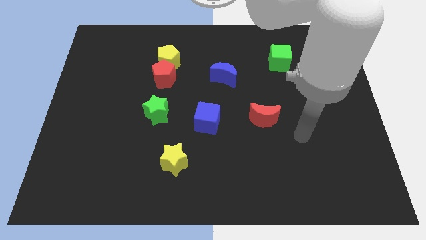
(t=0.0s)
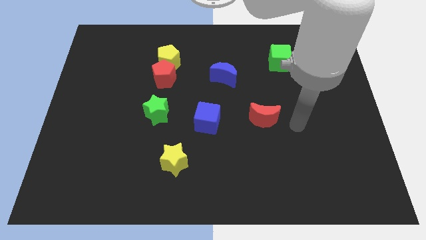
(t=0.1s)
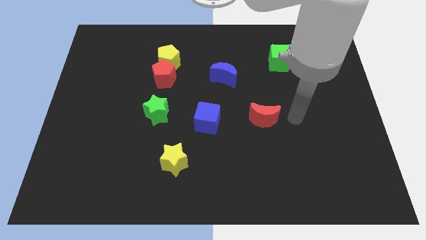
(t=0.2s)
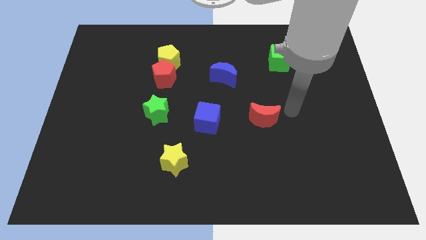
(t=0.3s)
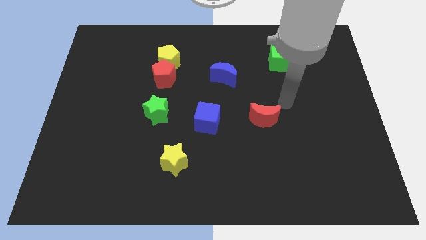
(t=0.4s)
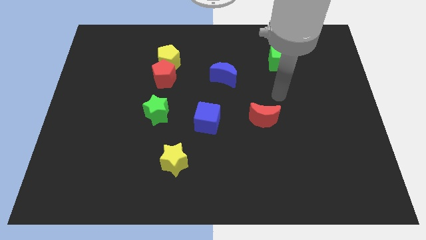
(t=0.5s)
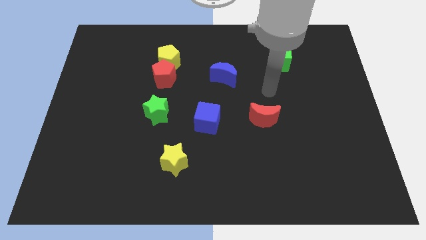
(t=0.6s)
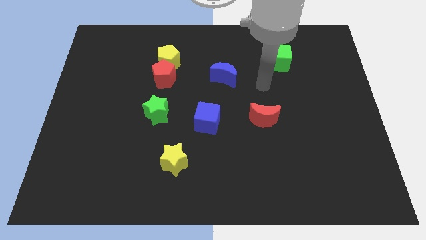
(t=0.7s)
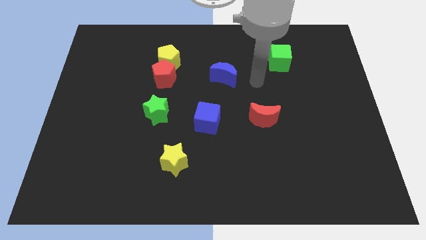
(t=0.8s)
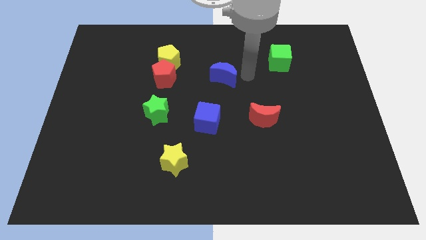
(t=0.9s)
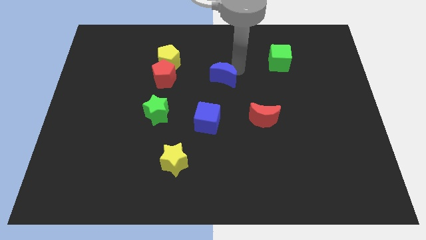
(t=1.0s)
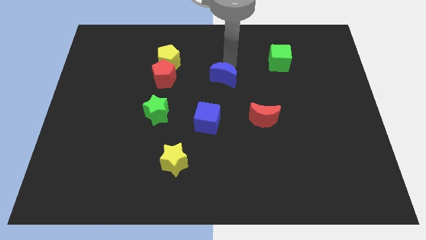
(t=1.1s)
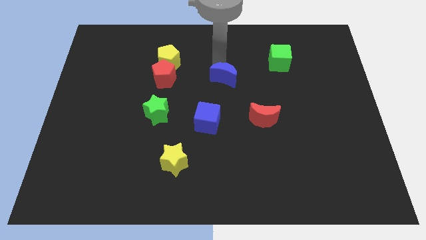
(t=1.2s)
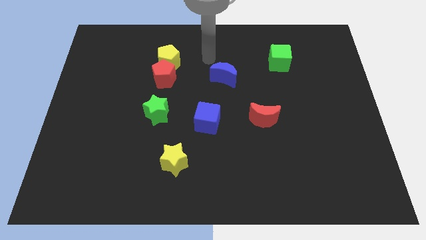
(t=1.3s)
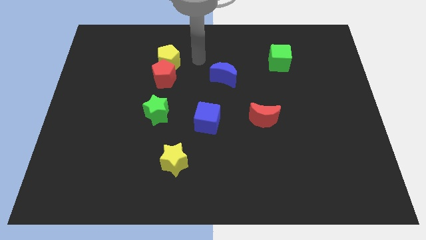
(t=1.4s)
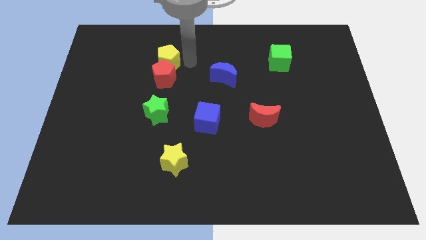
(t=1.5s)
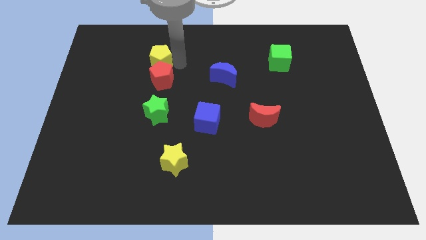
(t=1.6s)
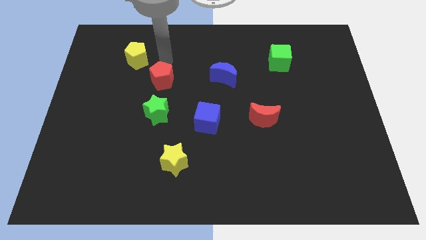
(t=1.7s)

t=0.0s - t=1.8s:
move the red pentagon away from the yellow pentagon

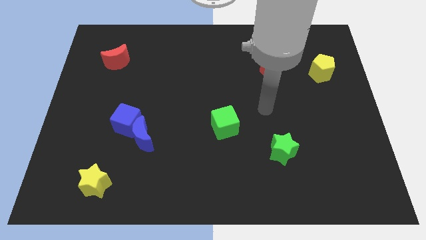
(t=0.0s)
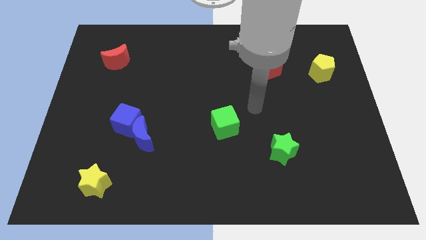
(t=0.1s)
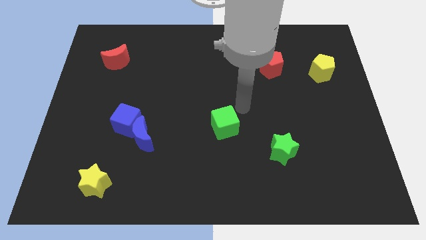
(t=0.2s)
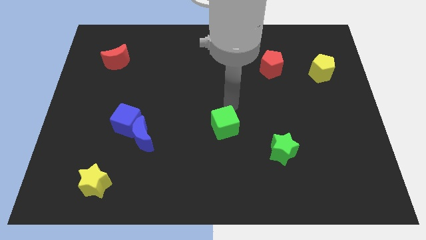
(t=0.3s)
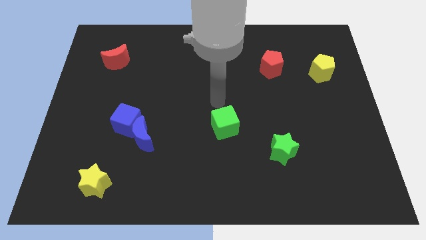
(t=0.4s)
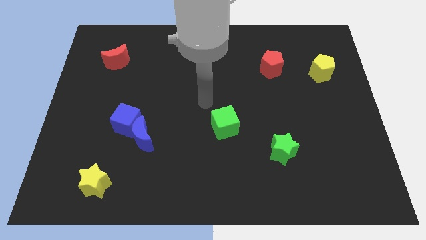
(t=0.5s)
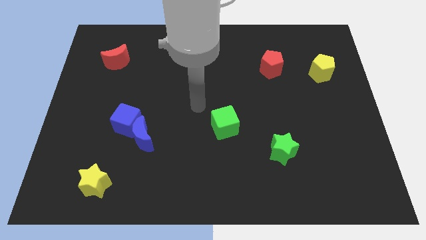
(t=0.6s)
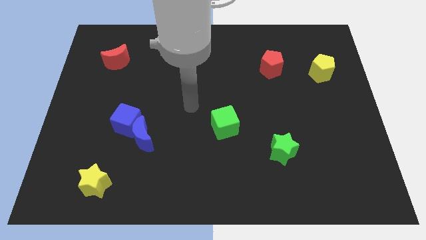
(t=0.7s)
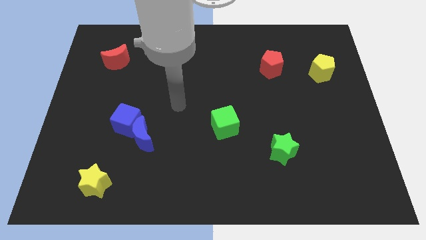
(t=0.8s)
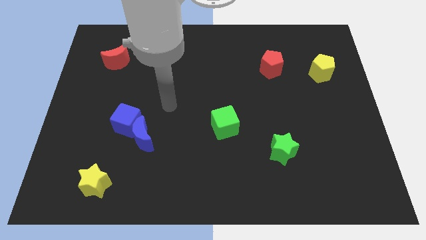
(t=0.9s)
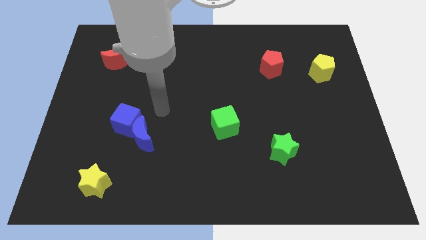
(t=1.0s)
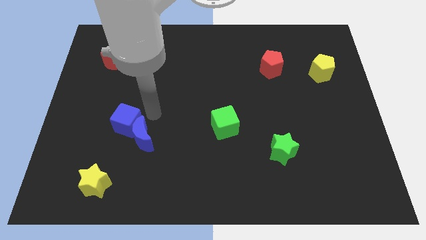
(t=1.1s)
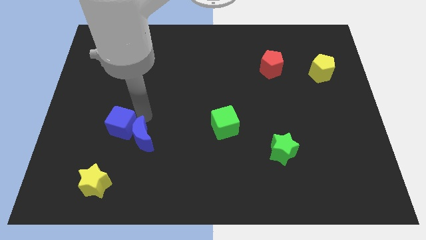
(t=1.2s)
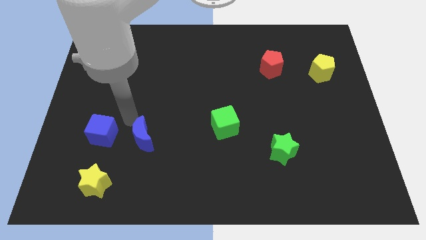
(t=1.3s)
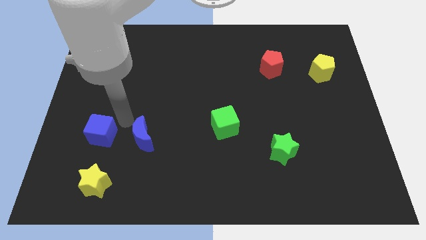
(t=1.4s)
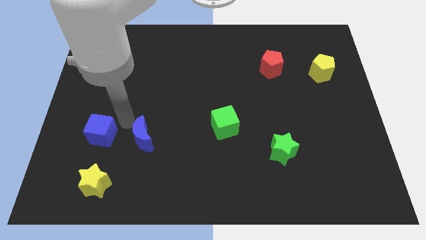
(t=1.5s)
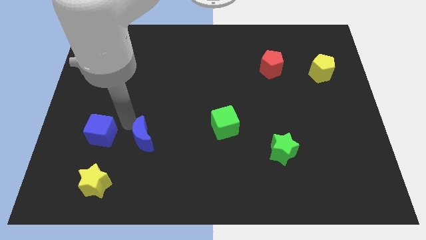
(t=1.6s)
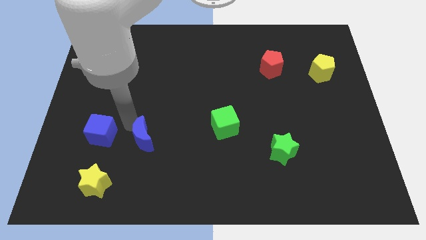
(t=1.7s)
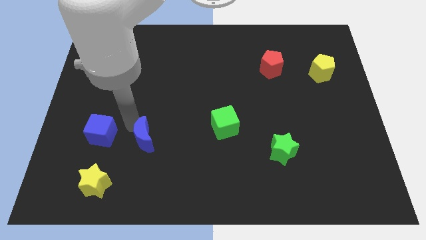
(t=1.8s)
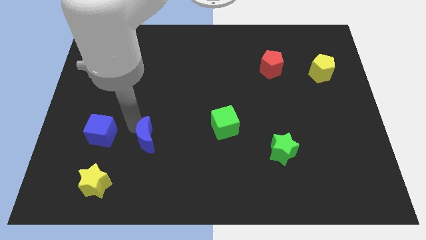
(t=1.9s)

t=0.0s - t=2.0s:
separate the blue moon from the blue cube

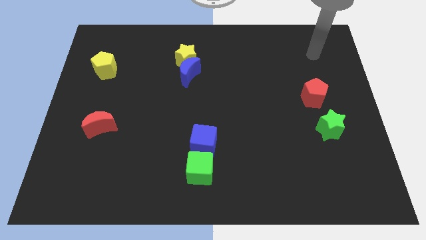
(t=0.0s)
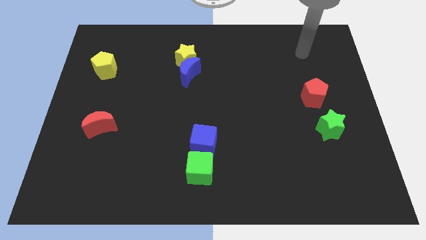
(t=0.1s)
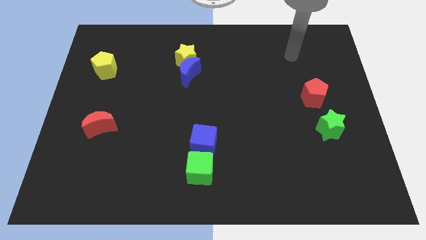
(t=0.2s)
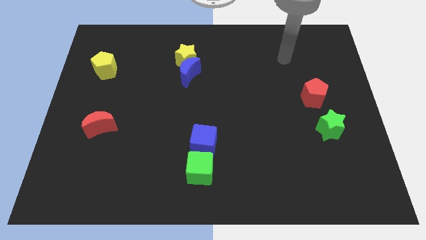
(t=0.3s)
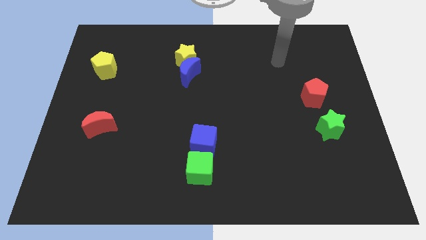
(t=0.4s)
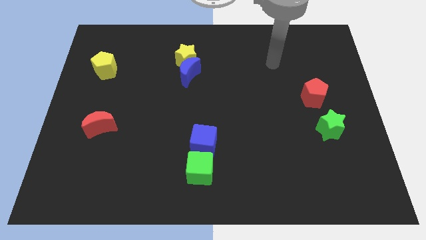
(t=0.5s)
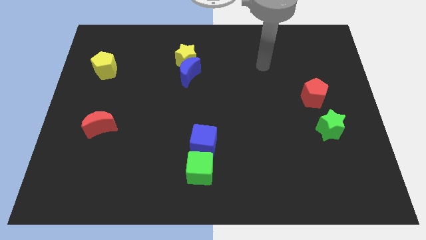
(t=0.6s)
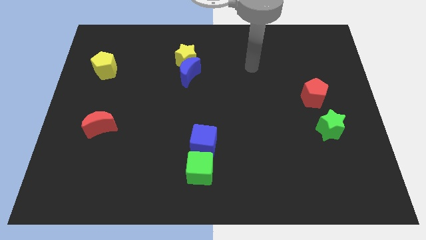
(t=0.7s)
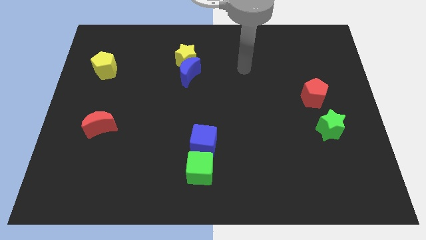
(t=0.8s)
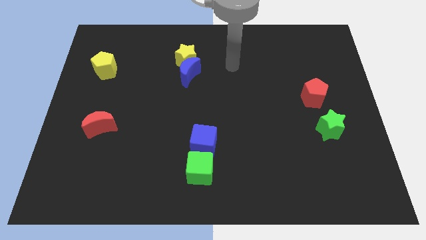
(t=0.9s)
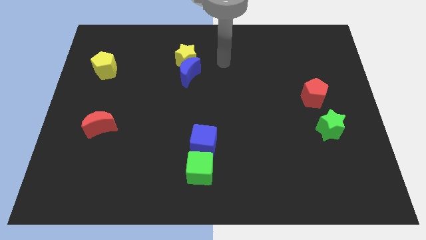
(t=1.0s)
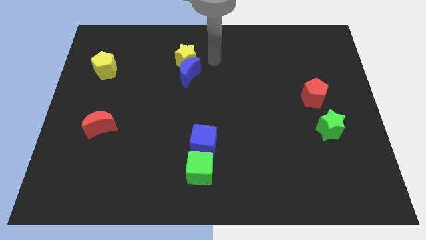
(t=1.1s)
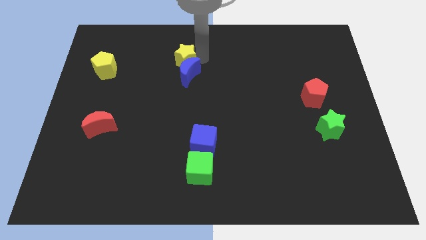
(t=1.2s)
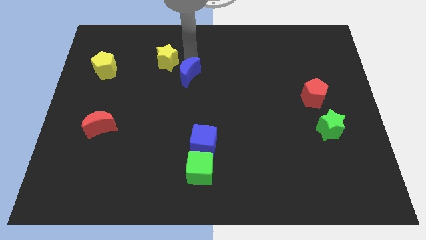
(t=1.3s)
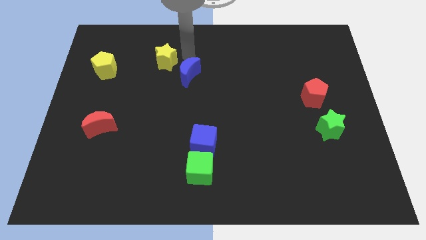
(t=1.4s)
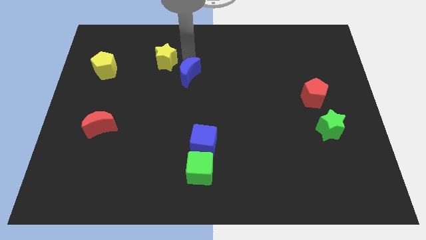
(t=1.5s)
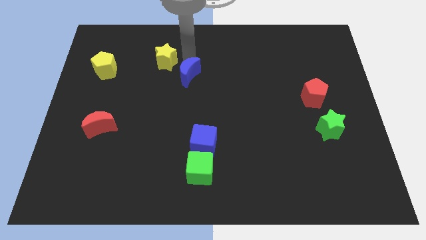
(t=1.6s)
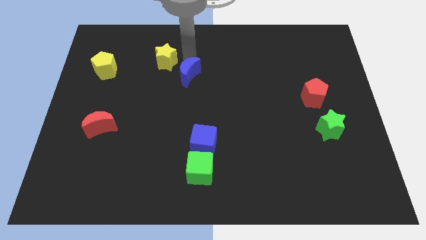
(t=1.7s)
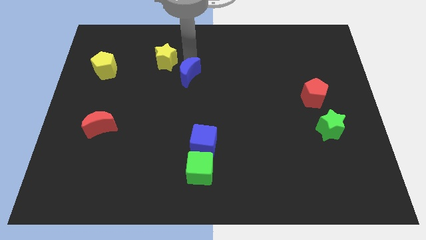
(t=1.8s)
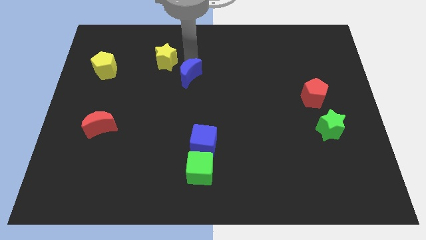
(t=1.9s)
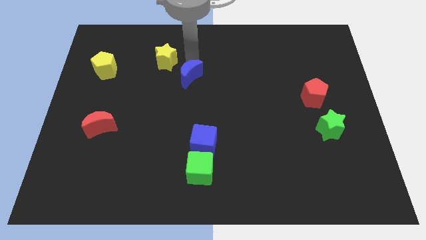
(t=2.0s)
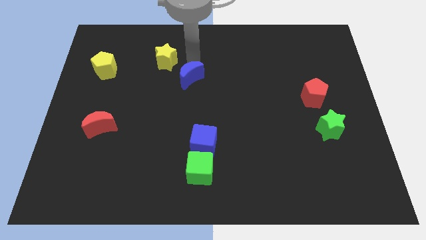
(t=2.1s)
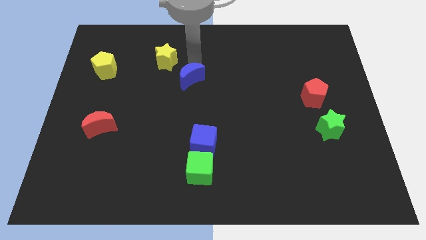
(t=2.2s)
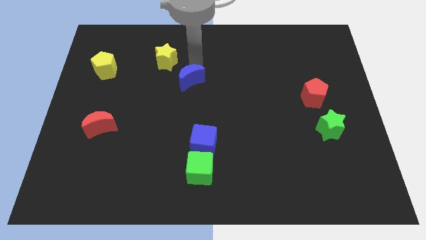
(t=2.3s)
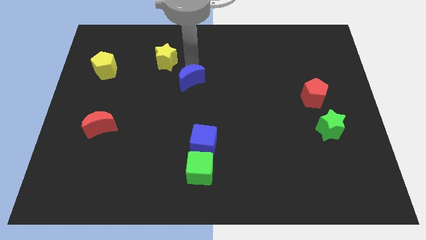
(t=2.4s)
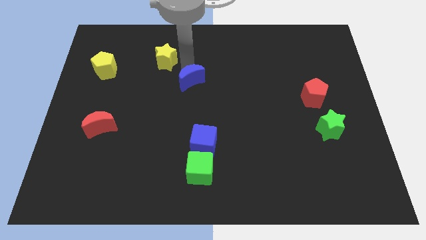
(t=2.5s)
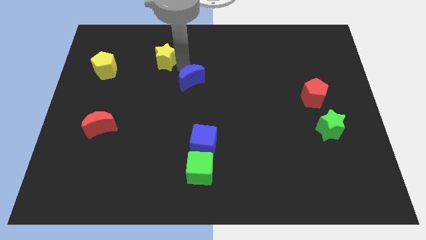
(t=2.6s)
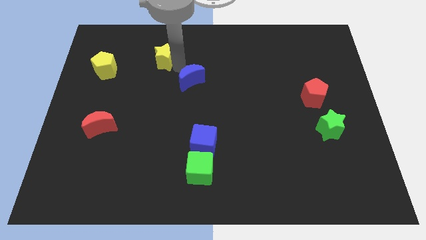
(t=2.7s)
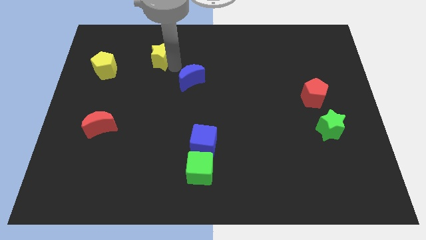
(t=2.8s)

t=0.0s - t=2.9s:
move the blue moon away from the yellow star

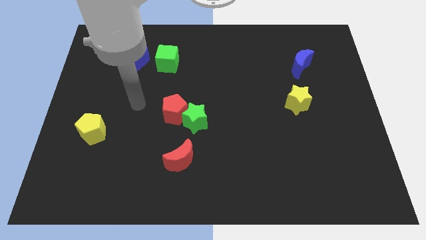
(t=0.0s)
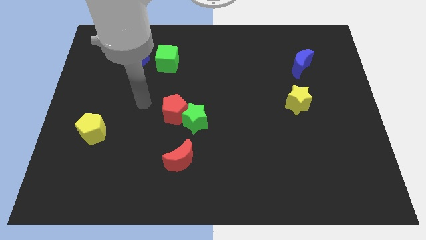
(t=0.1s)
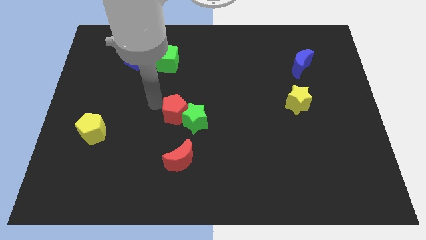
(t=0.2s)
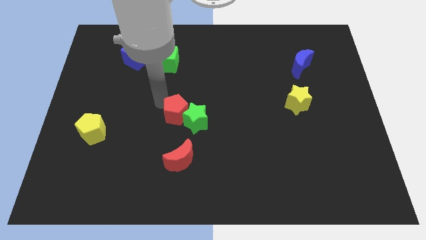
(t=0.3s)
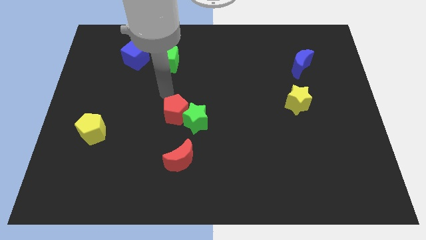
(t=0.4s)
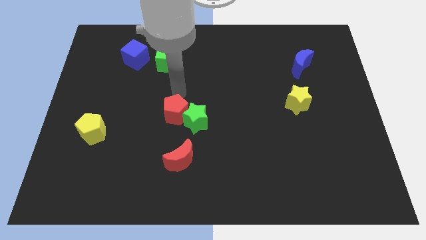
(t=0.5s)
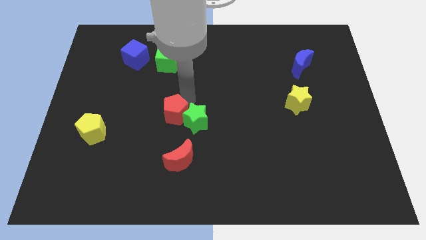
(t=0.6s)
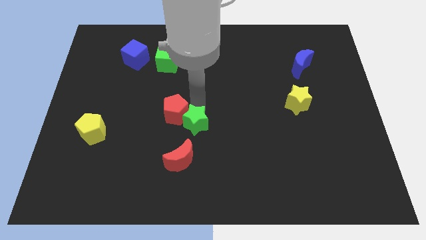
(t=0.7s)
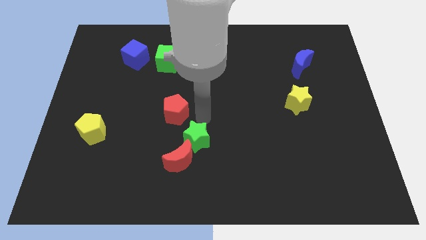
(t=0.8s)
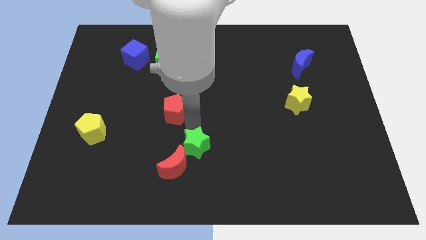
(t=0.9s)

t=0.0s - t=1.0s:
move the red pentagon away from the green star

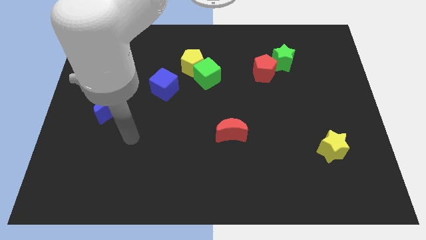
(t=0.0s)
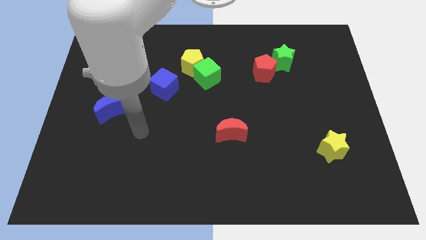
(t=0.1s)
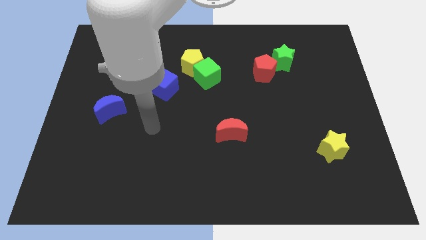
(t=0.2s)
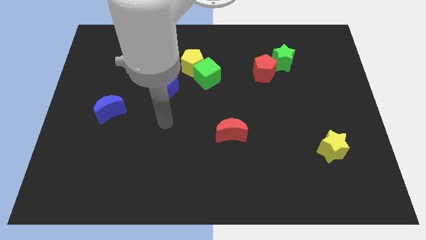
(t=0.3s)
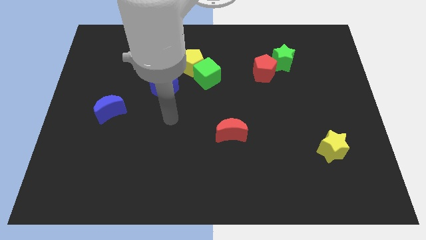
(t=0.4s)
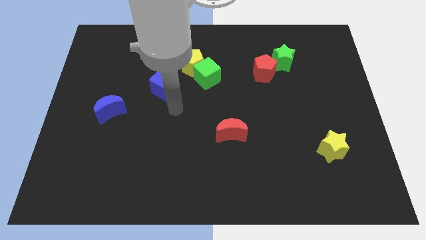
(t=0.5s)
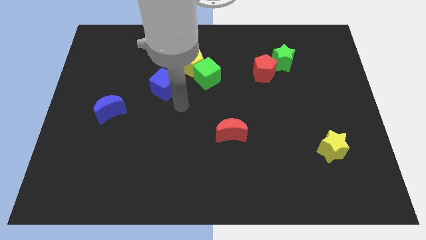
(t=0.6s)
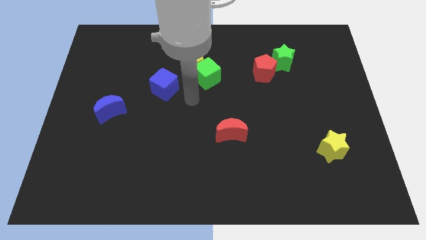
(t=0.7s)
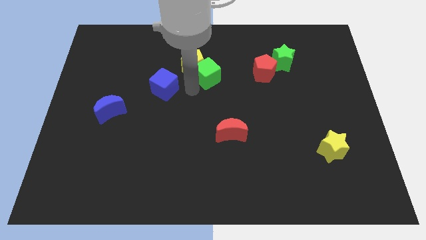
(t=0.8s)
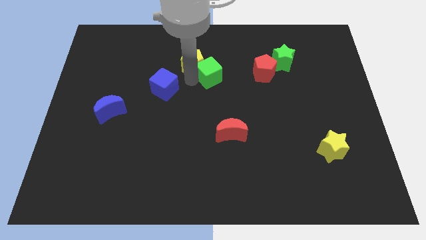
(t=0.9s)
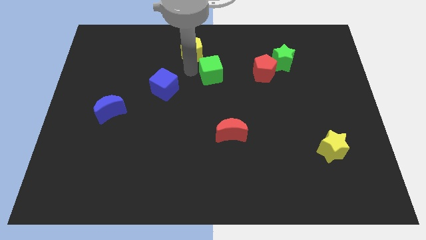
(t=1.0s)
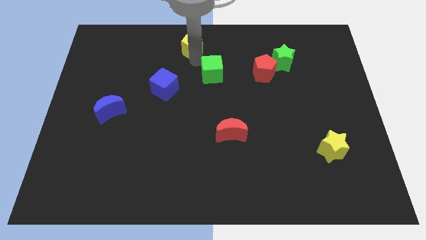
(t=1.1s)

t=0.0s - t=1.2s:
pull the green cube apart from the yellow pentagon

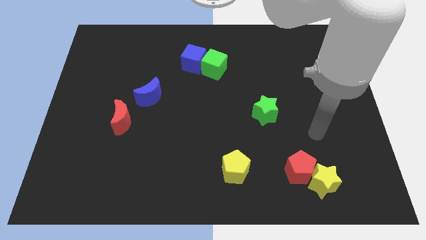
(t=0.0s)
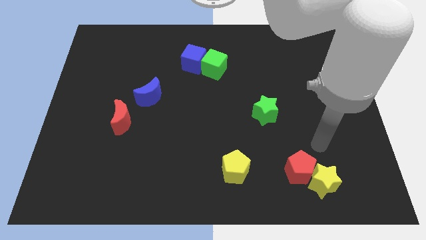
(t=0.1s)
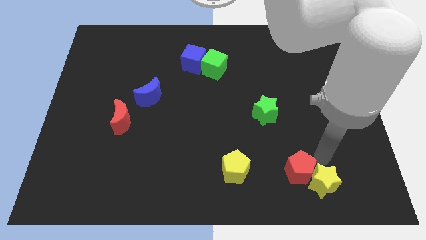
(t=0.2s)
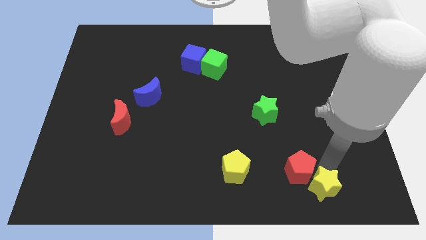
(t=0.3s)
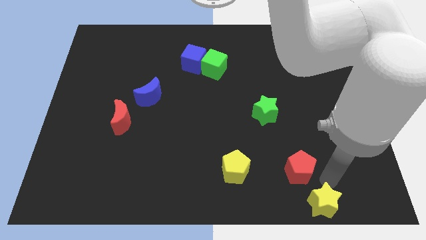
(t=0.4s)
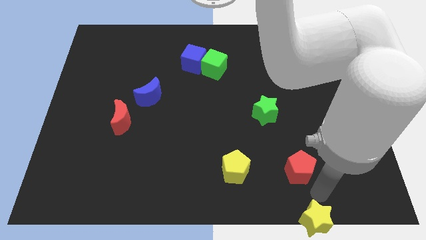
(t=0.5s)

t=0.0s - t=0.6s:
separate the red pentagon from the yellow star

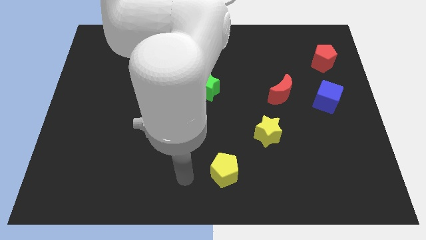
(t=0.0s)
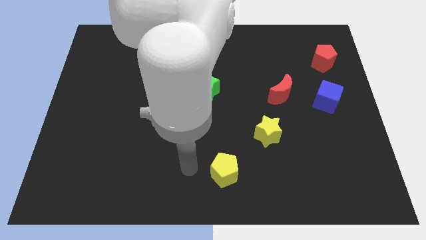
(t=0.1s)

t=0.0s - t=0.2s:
pull the blue moon apart from the green star
